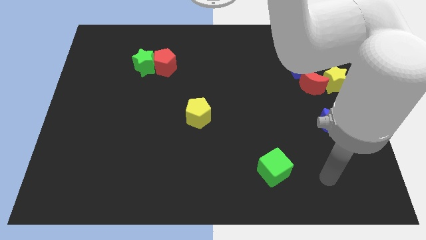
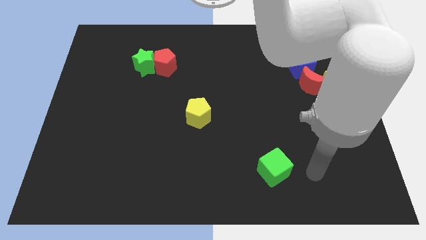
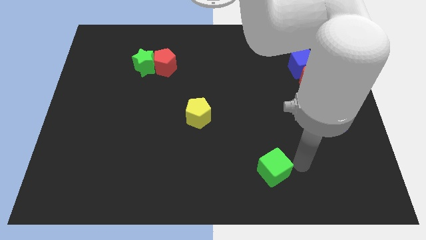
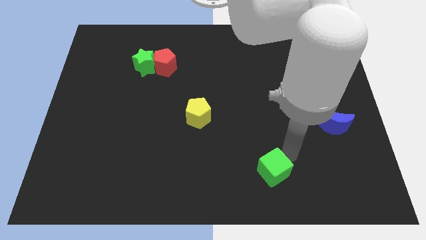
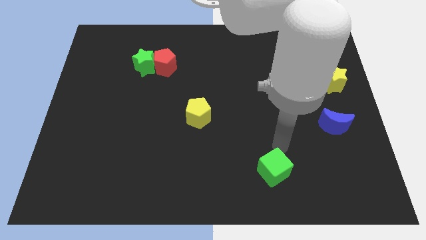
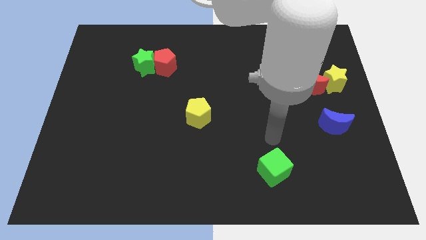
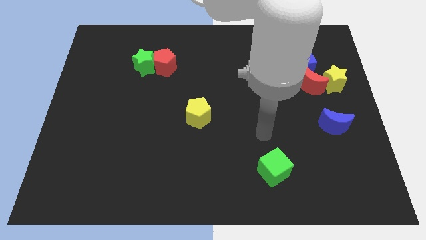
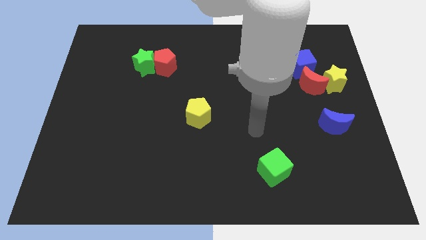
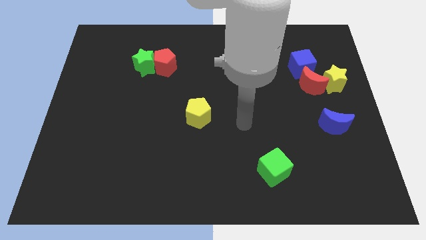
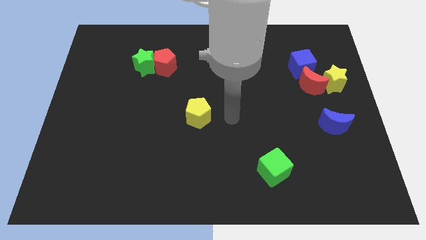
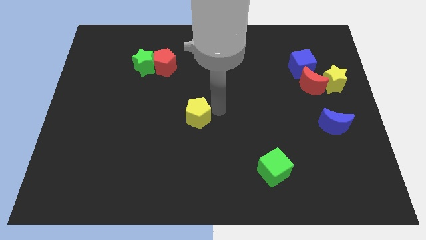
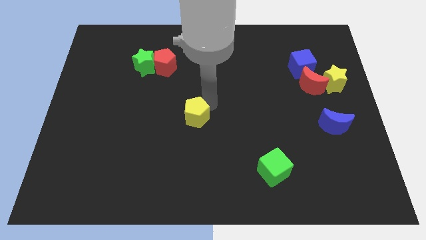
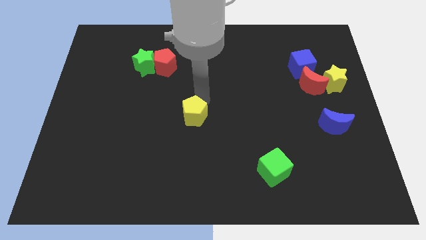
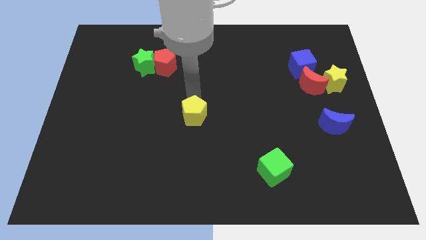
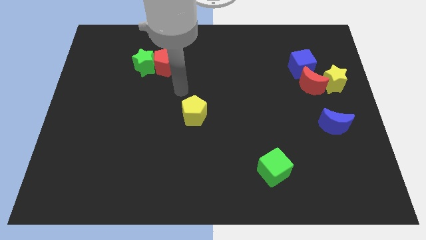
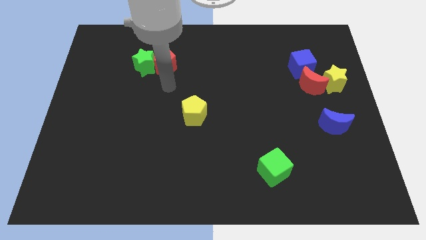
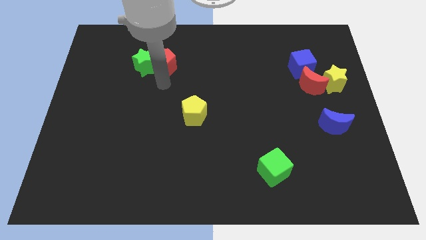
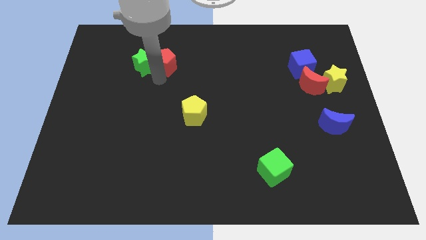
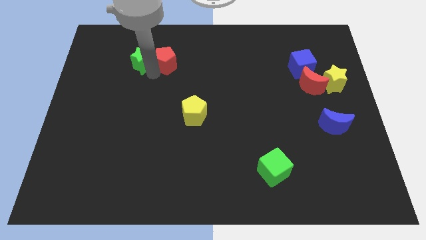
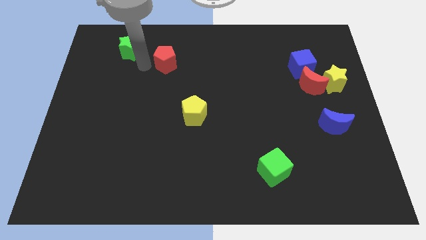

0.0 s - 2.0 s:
move the red pentagon away from the green star

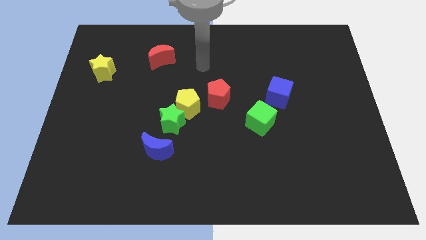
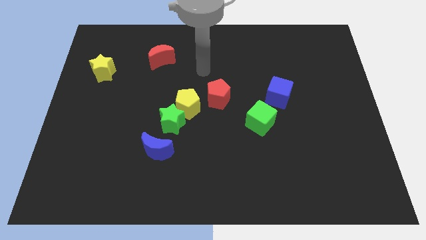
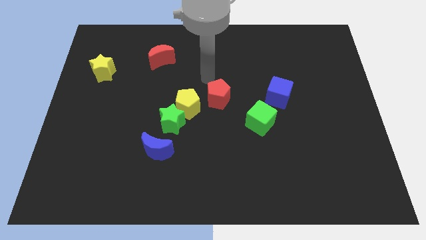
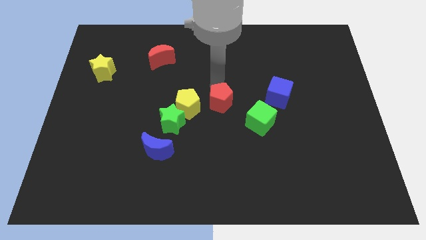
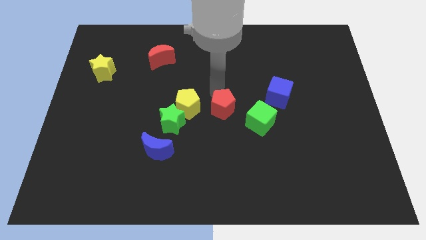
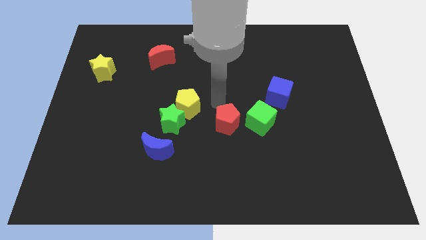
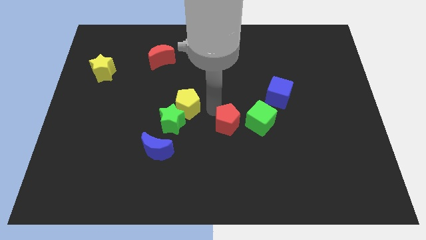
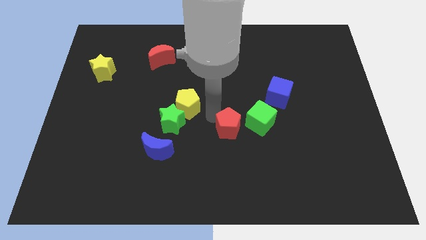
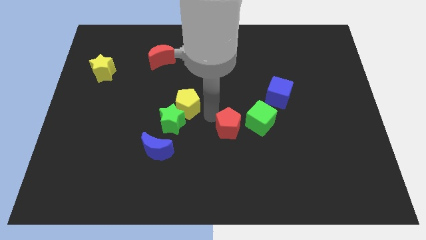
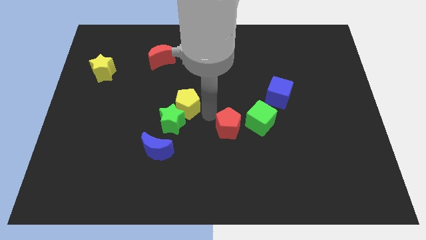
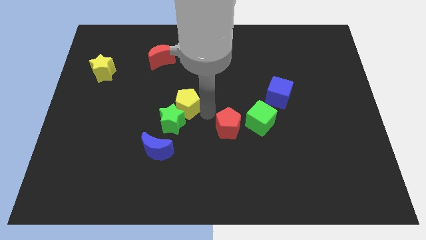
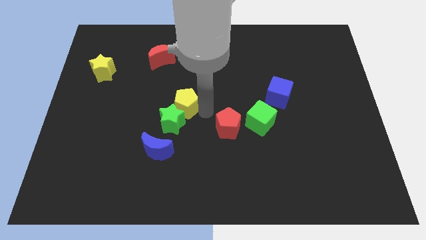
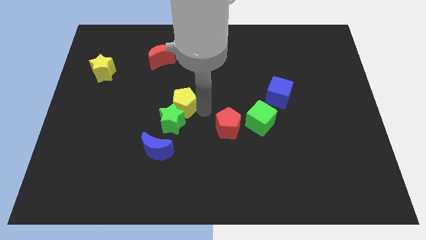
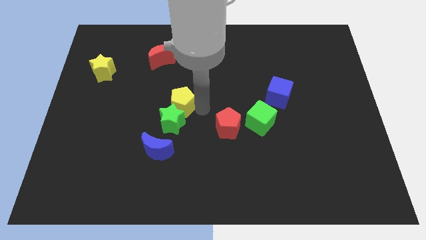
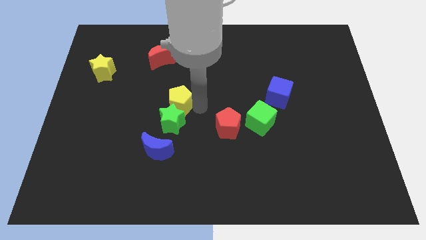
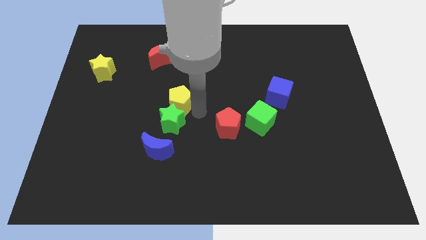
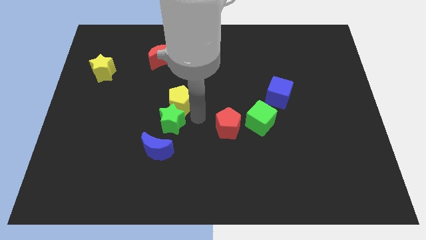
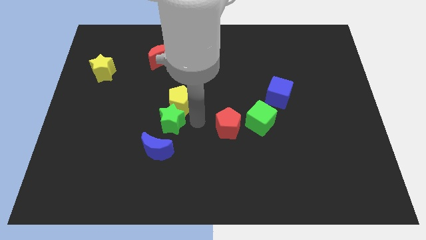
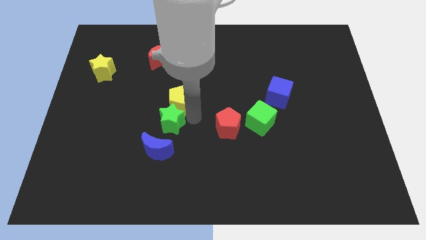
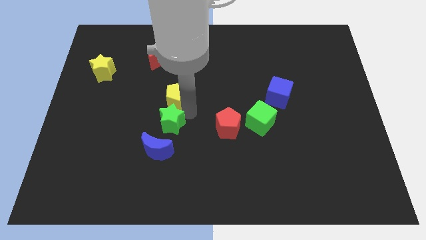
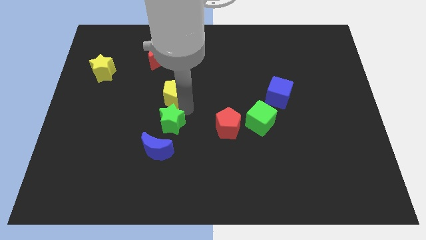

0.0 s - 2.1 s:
separate the yellow pentagon from the green star and red pentagon

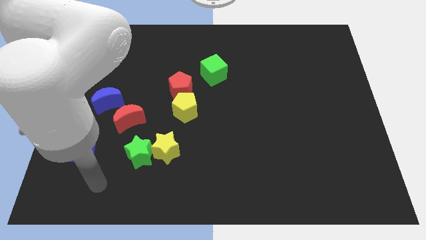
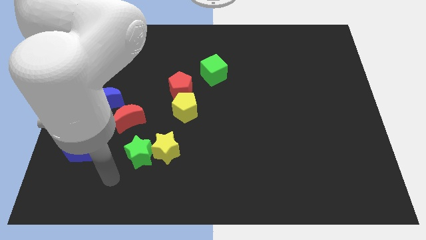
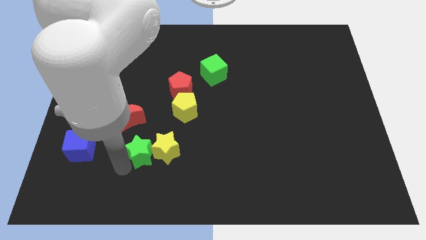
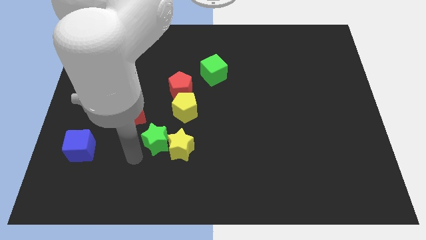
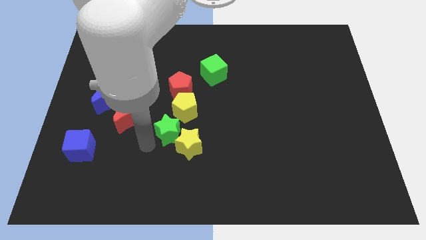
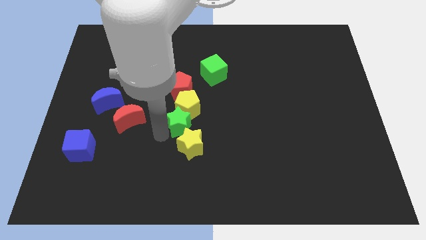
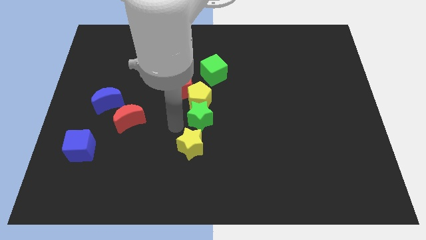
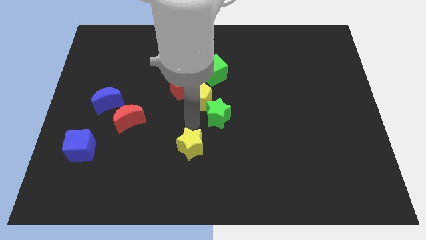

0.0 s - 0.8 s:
move the yellow star away from the green star

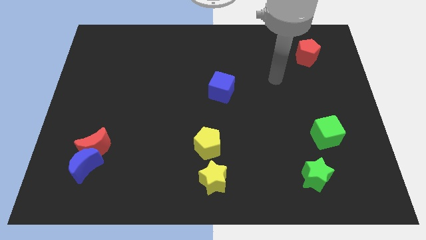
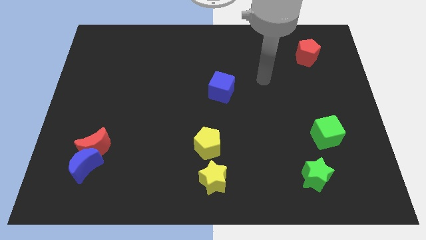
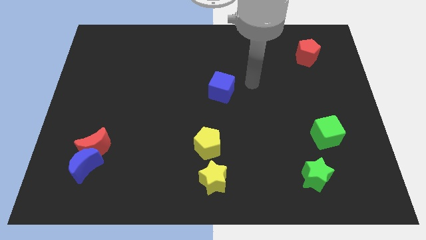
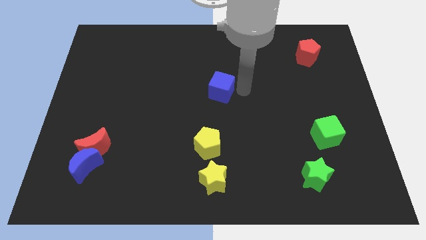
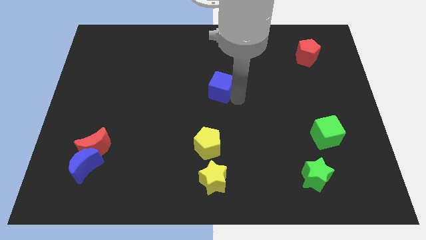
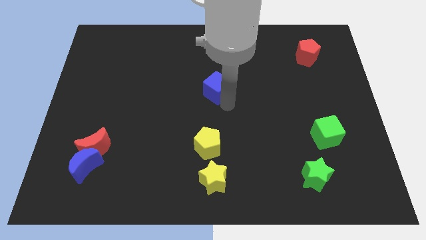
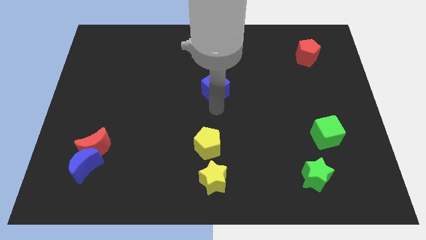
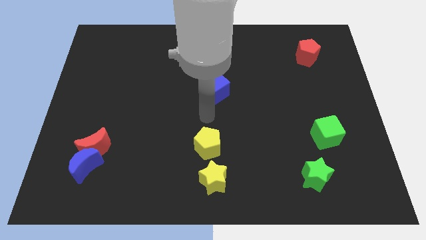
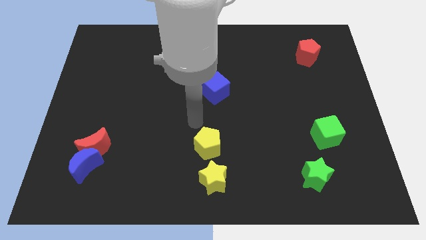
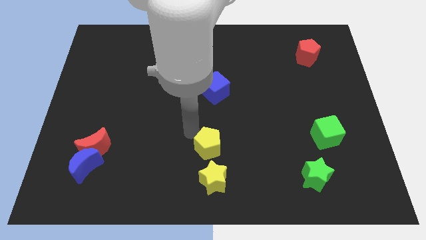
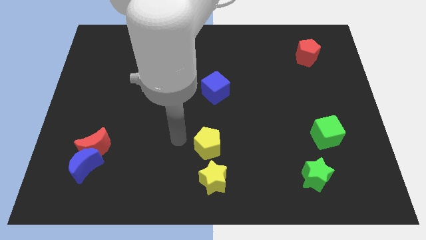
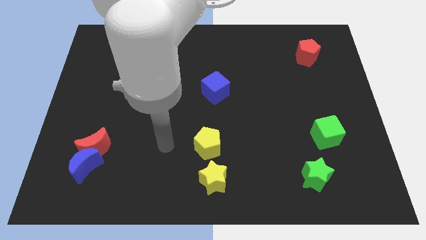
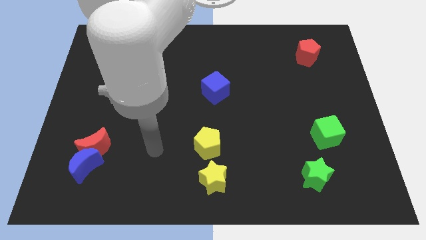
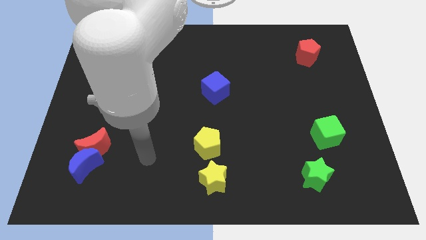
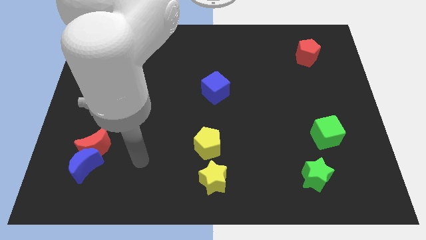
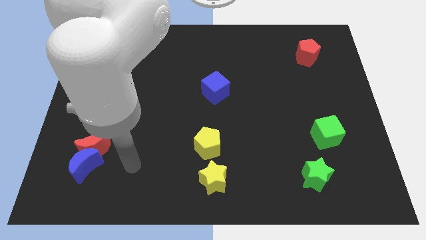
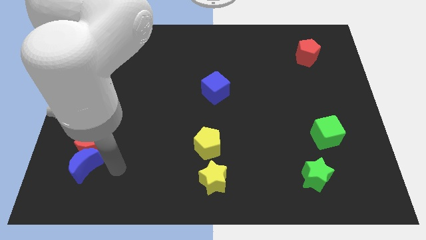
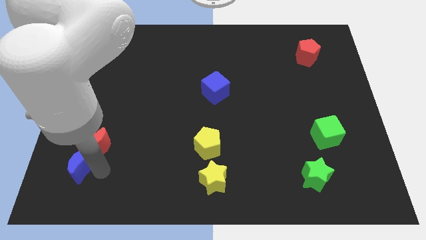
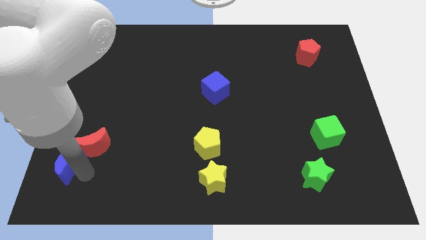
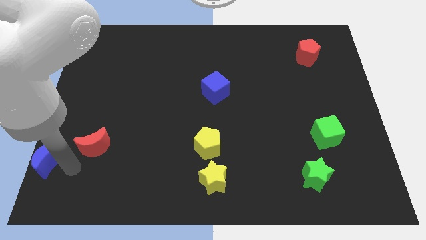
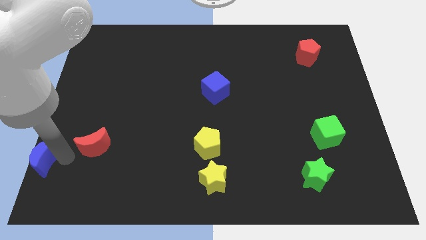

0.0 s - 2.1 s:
separate the red moon from the blue moon

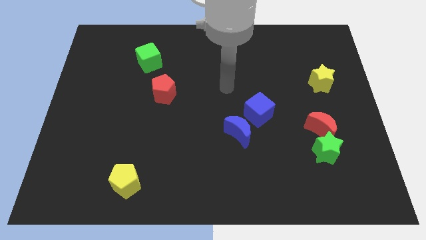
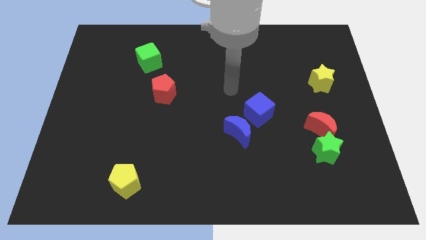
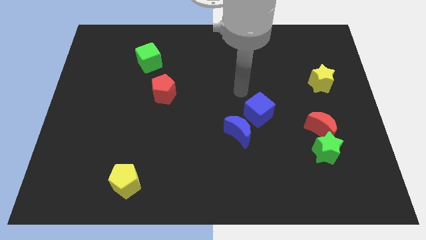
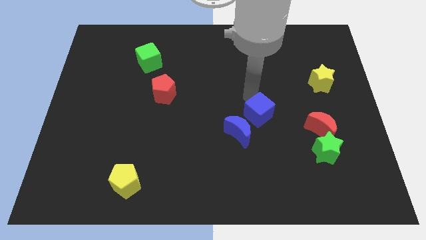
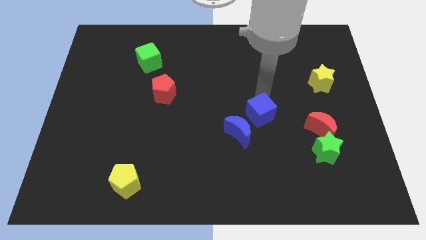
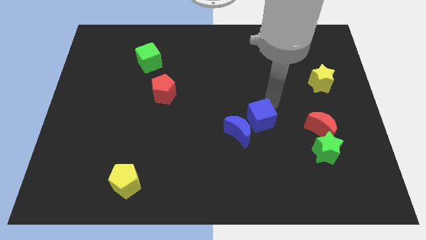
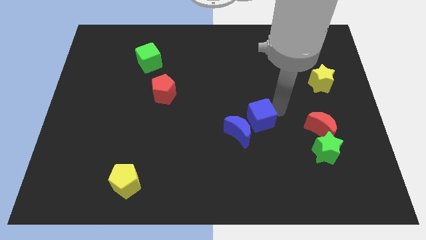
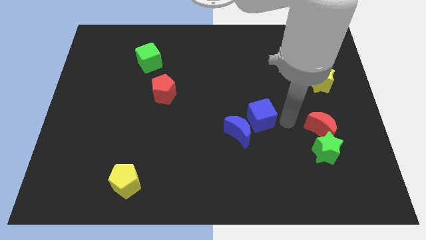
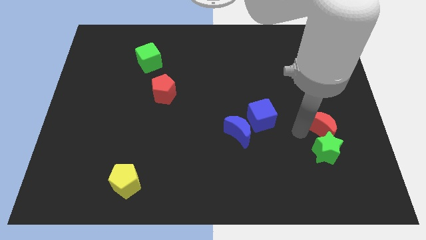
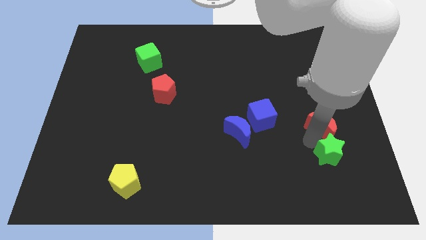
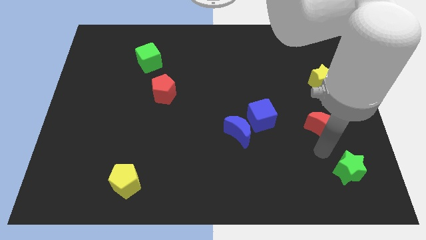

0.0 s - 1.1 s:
separate the red moon from the green star

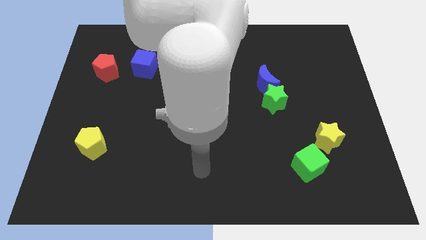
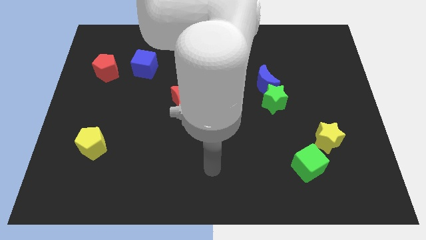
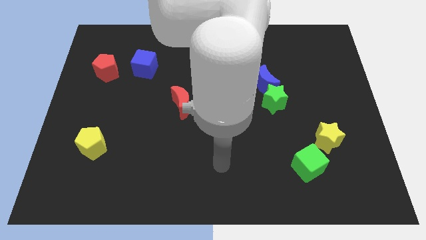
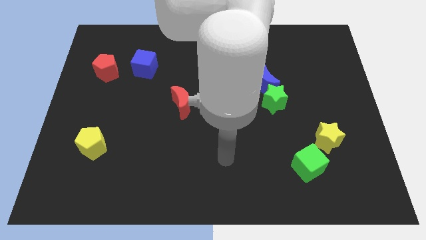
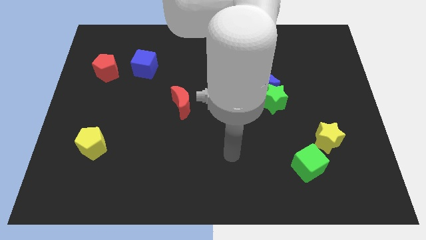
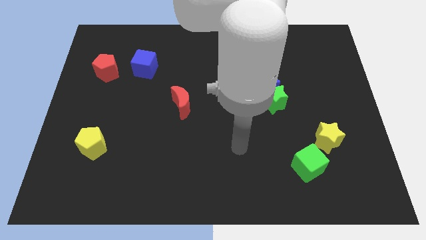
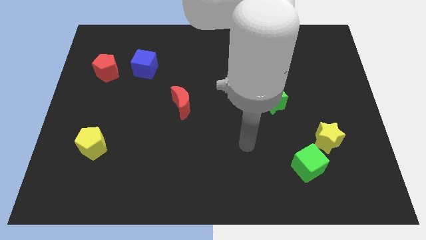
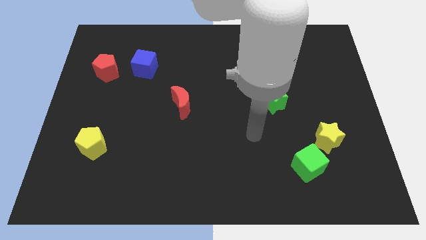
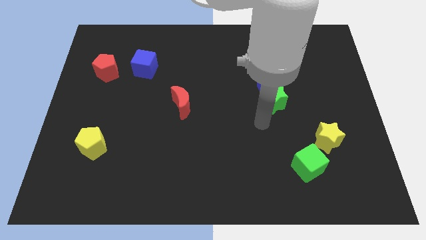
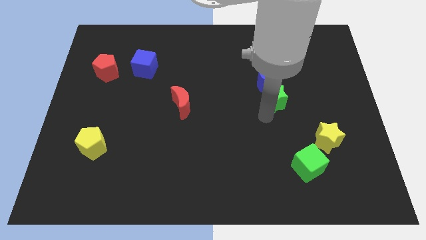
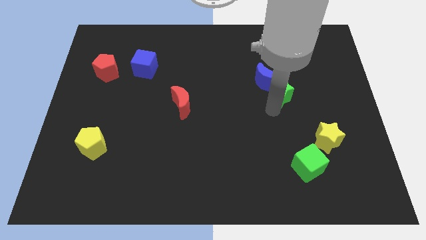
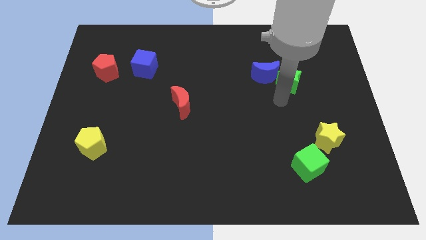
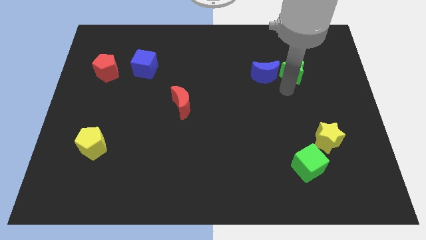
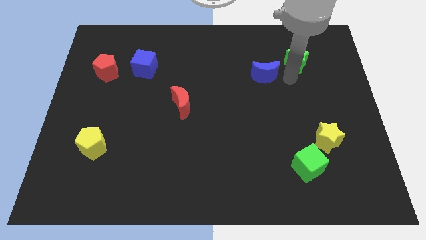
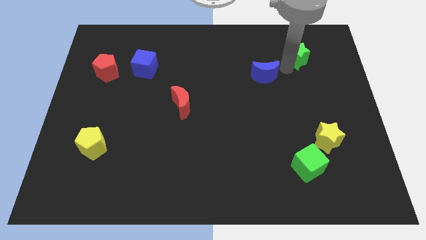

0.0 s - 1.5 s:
move the blue moon away from the green star
